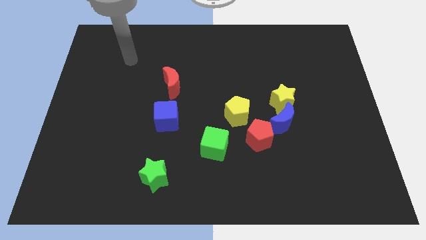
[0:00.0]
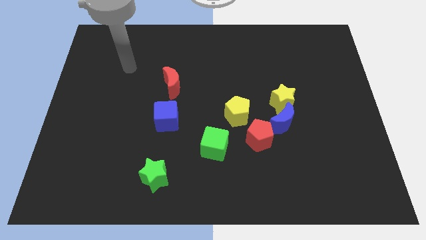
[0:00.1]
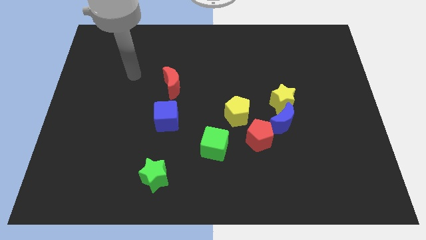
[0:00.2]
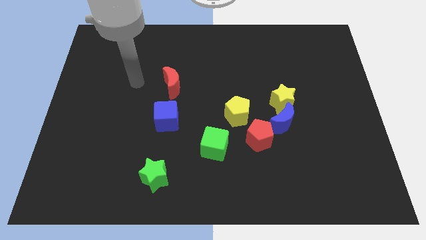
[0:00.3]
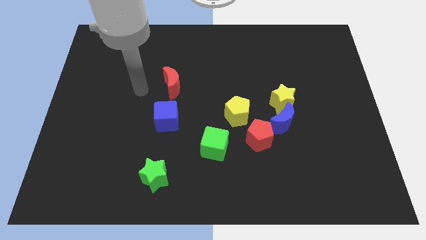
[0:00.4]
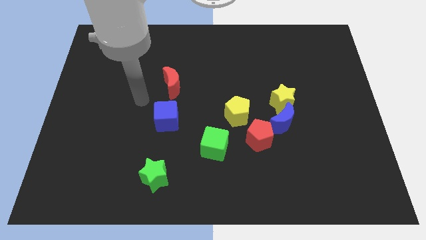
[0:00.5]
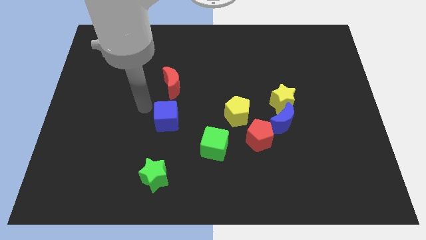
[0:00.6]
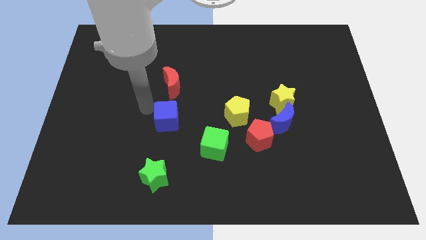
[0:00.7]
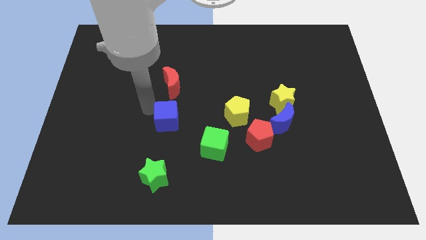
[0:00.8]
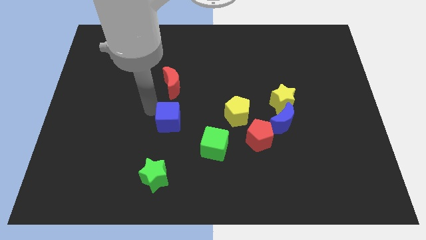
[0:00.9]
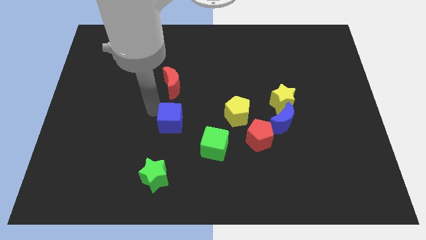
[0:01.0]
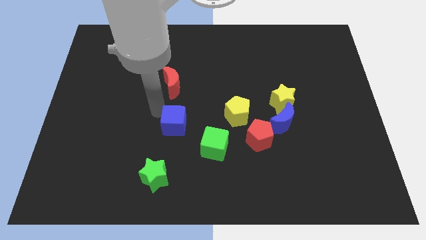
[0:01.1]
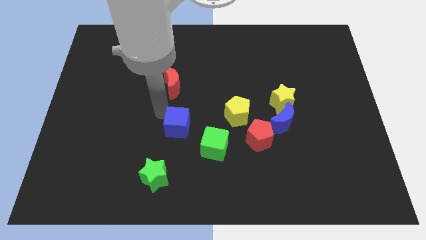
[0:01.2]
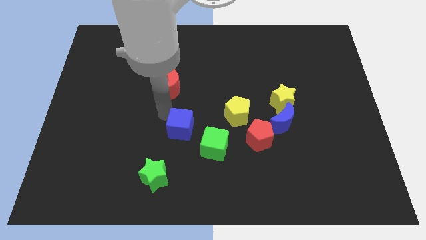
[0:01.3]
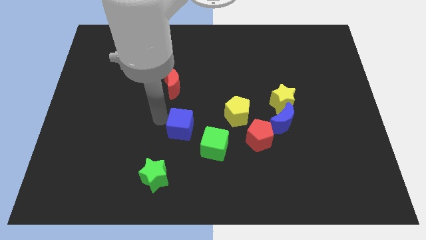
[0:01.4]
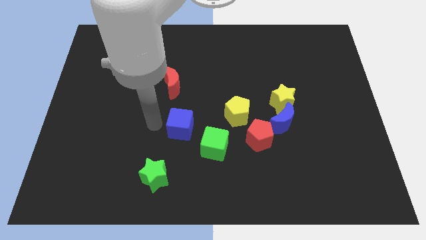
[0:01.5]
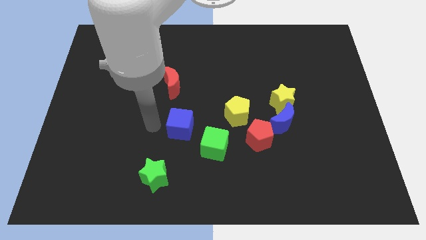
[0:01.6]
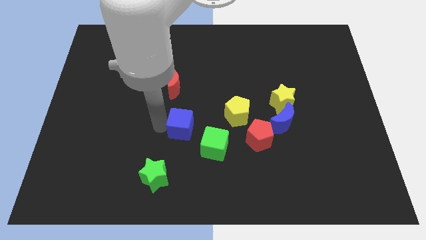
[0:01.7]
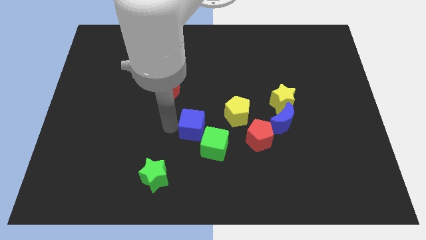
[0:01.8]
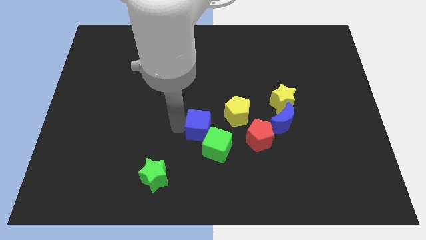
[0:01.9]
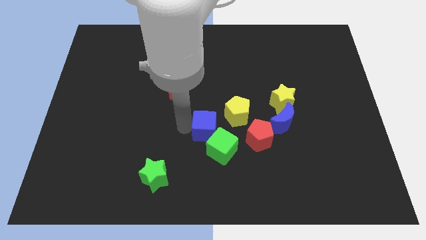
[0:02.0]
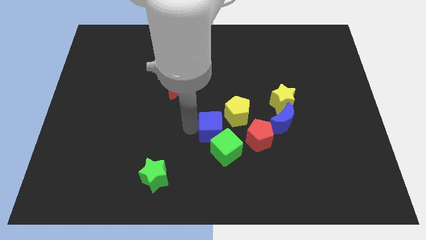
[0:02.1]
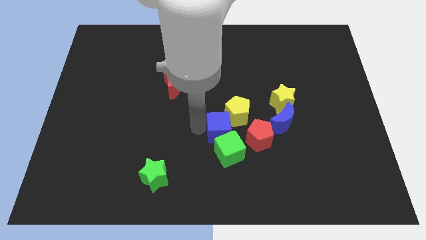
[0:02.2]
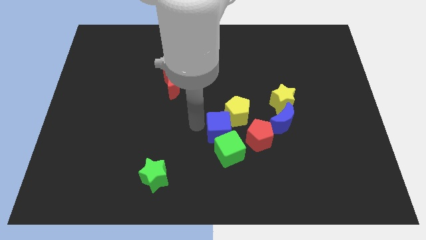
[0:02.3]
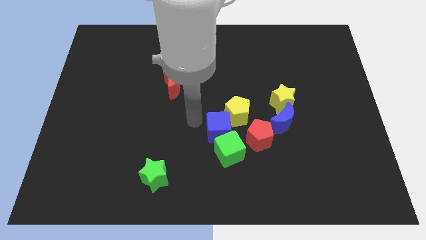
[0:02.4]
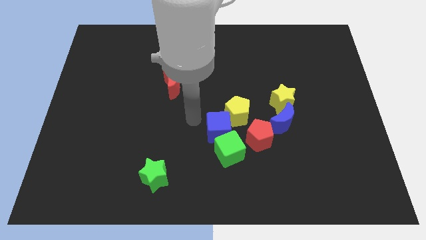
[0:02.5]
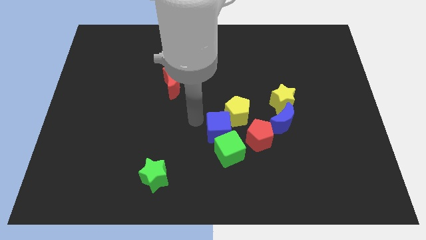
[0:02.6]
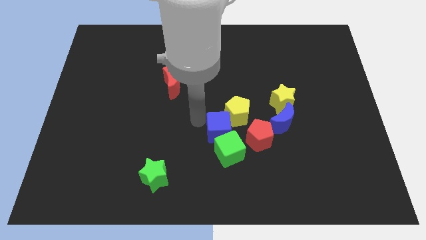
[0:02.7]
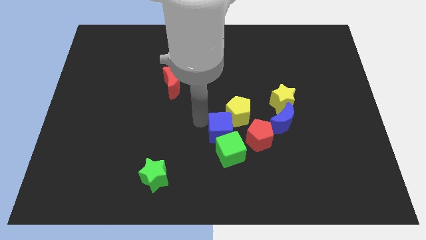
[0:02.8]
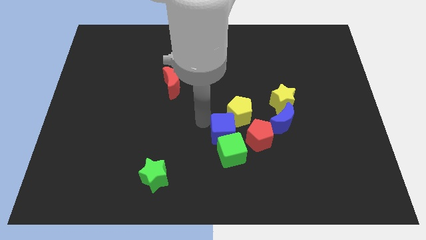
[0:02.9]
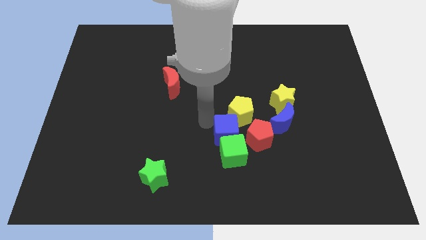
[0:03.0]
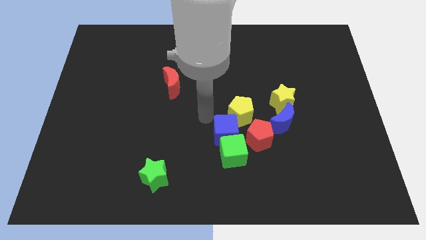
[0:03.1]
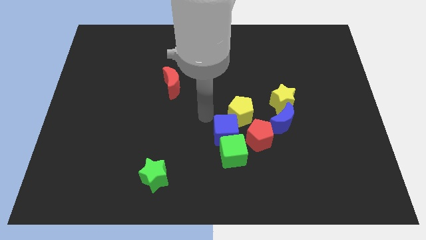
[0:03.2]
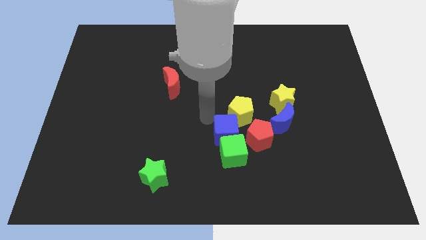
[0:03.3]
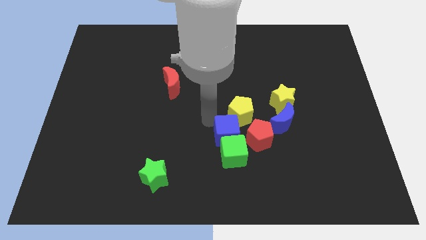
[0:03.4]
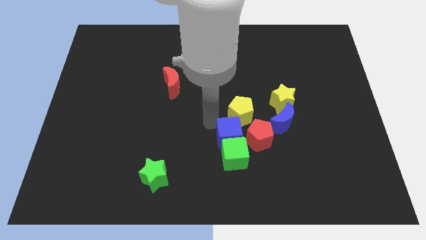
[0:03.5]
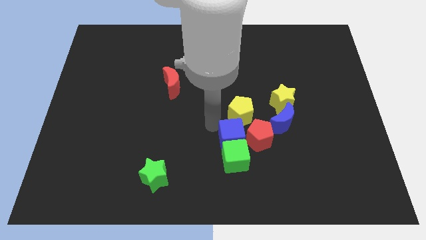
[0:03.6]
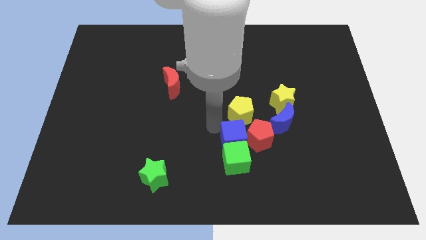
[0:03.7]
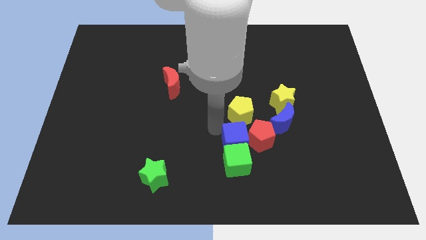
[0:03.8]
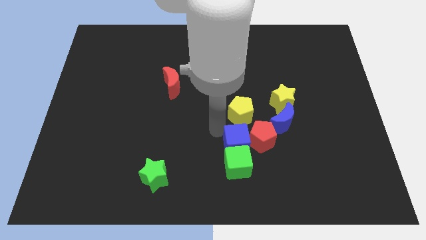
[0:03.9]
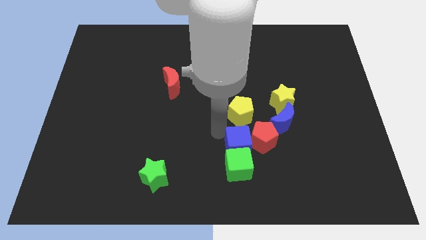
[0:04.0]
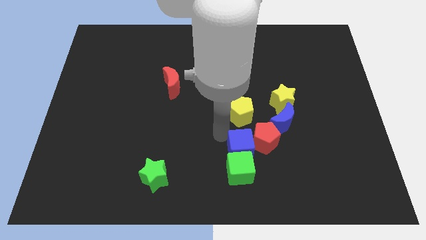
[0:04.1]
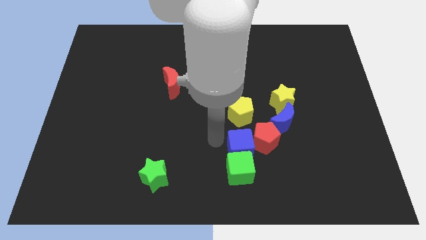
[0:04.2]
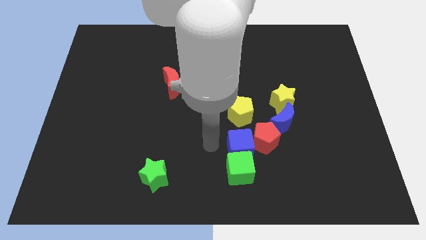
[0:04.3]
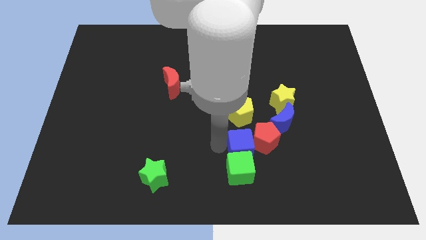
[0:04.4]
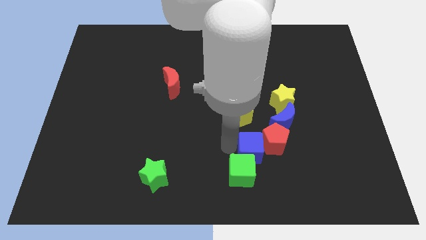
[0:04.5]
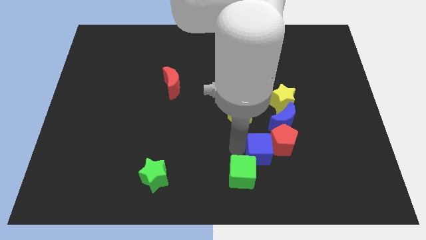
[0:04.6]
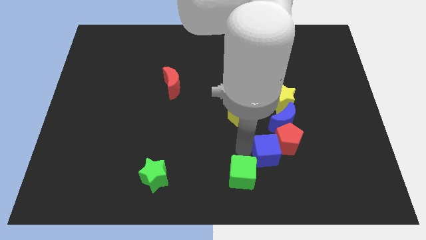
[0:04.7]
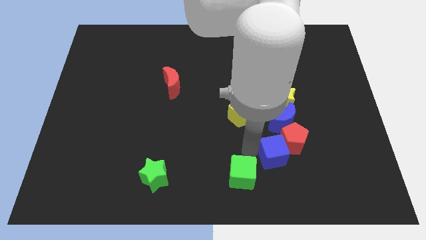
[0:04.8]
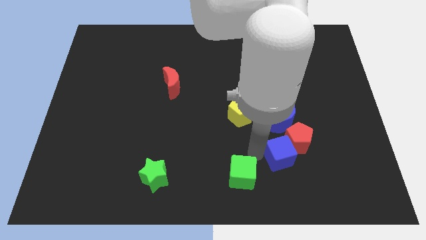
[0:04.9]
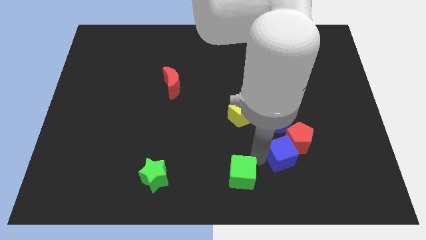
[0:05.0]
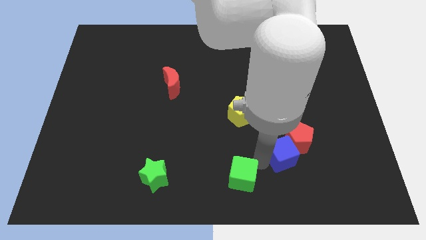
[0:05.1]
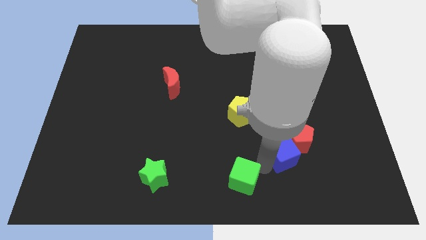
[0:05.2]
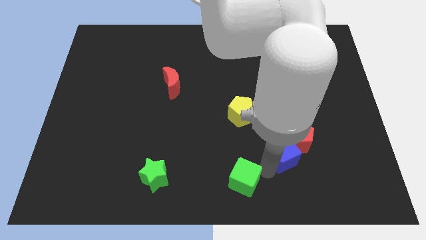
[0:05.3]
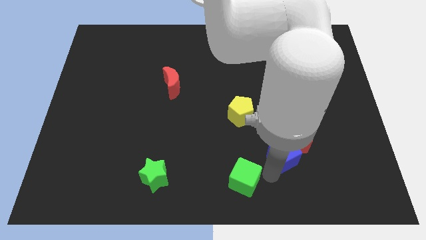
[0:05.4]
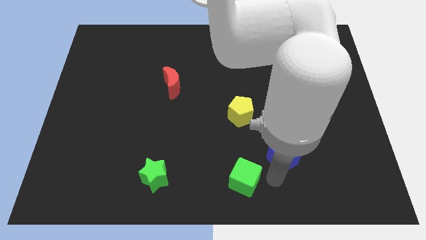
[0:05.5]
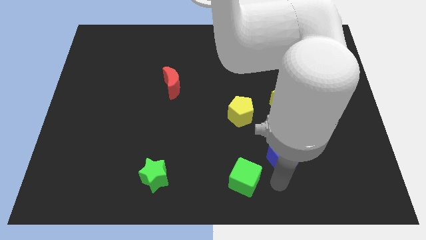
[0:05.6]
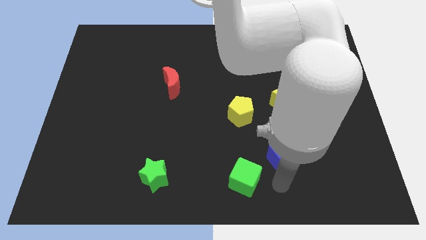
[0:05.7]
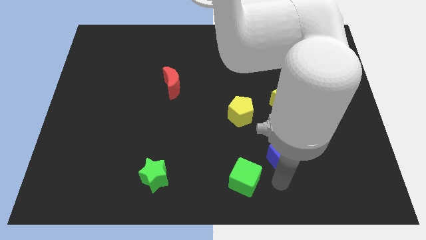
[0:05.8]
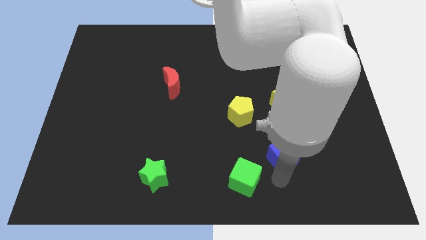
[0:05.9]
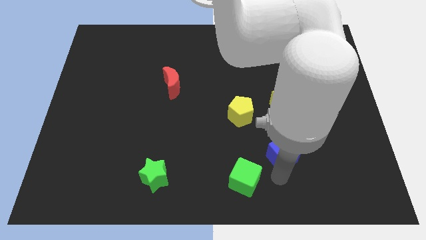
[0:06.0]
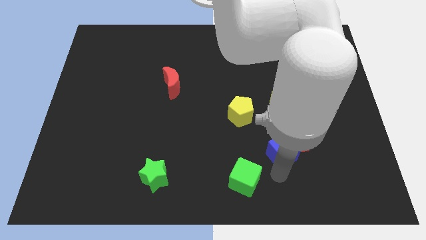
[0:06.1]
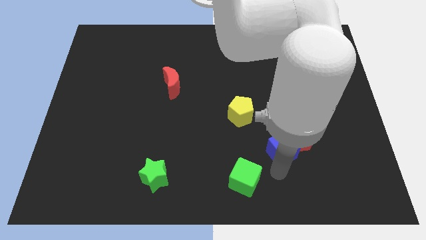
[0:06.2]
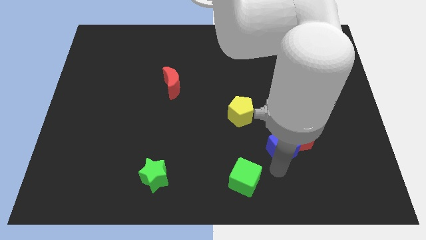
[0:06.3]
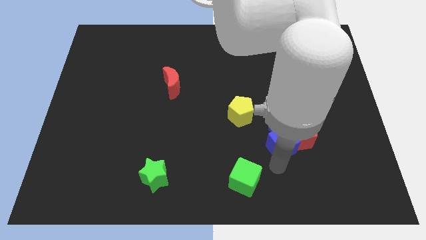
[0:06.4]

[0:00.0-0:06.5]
put the blue cube close to the blue moon
